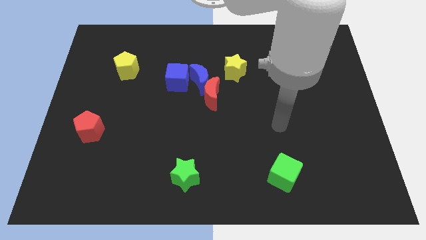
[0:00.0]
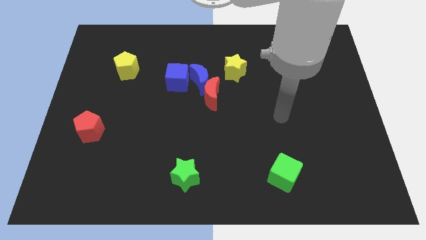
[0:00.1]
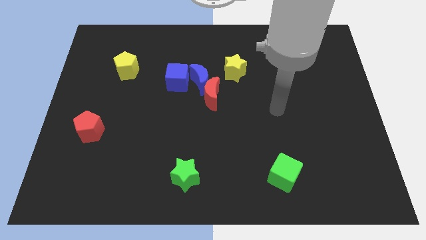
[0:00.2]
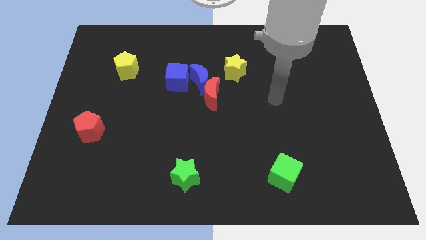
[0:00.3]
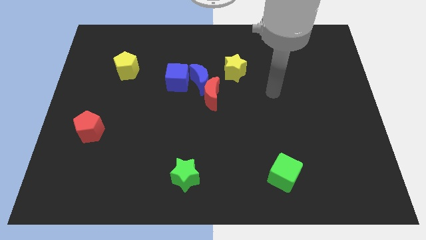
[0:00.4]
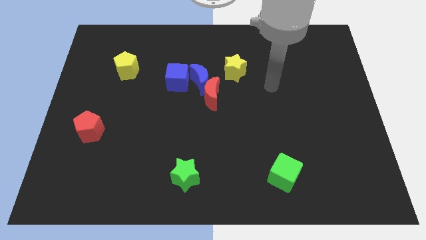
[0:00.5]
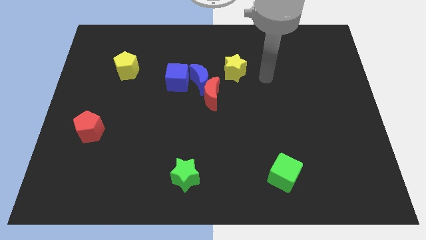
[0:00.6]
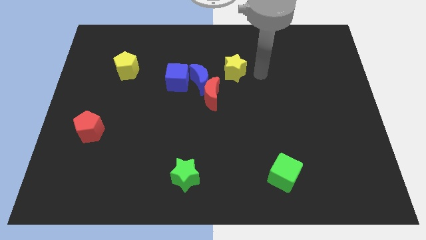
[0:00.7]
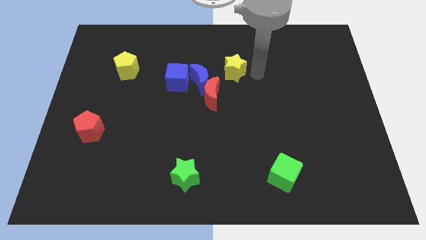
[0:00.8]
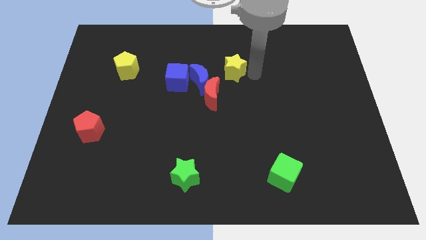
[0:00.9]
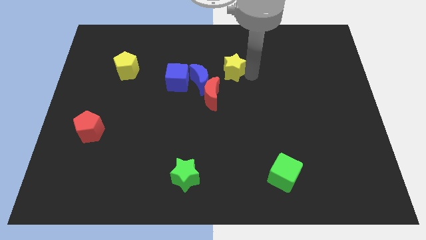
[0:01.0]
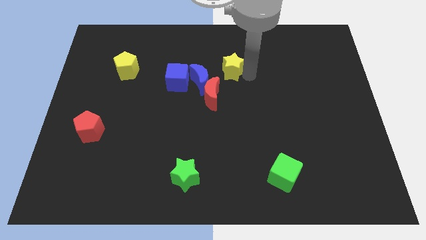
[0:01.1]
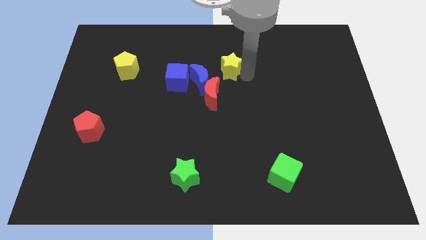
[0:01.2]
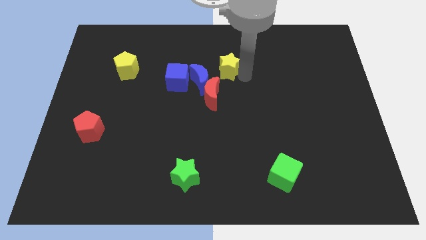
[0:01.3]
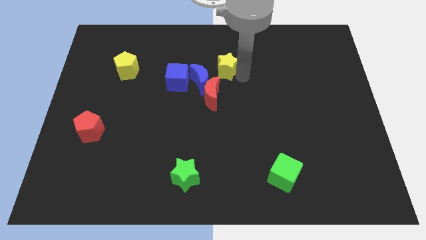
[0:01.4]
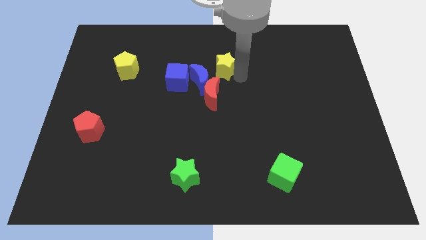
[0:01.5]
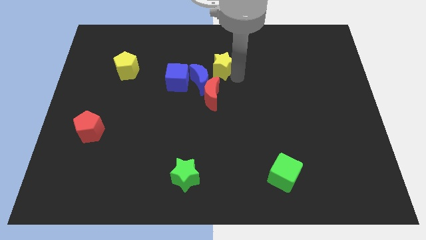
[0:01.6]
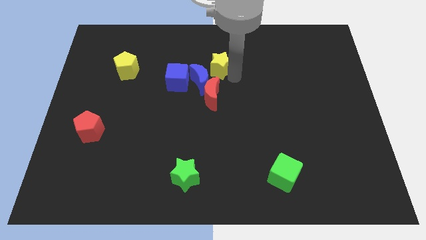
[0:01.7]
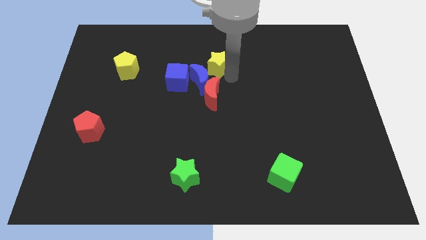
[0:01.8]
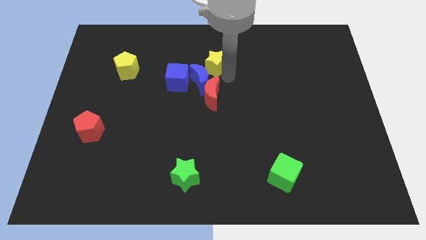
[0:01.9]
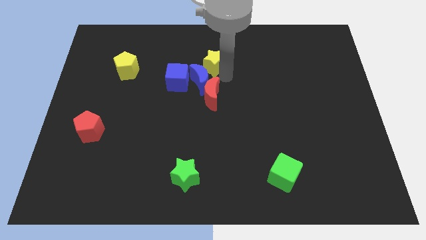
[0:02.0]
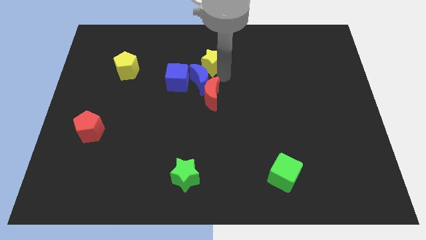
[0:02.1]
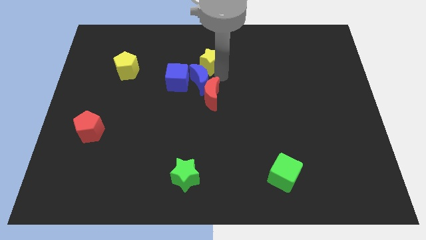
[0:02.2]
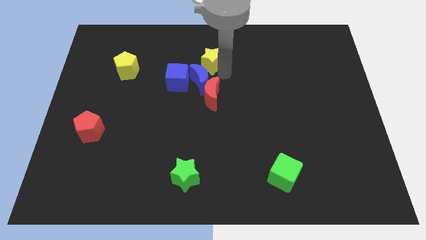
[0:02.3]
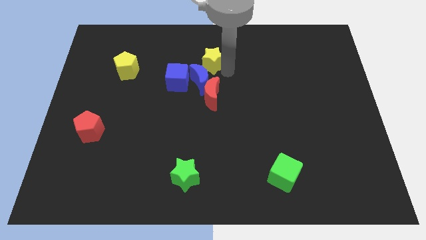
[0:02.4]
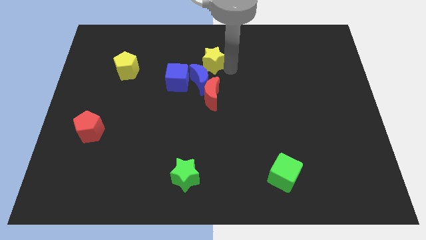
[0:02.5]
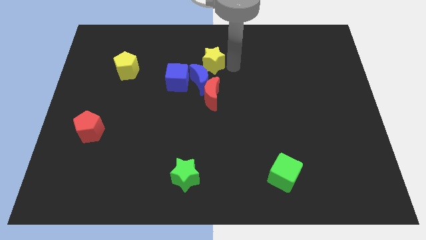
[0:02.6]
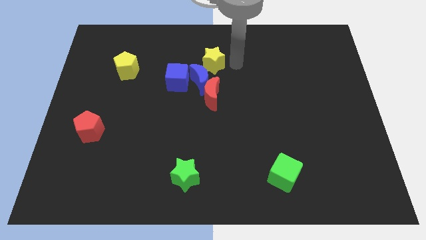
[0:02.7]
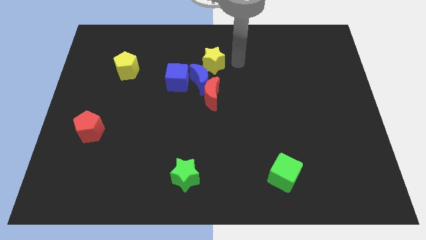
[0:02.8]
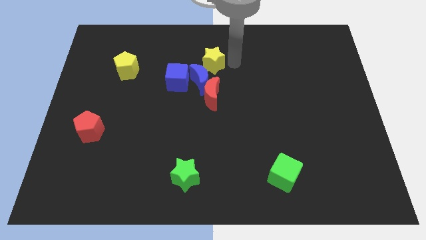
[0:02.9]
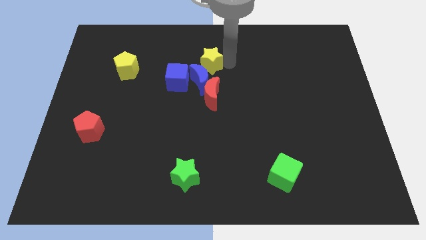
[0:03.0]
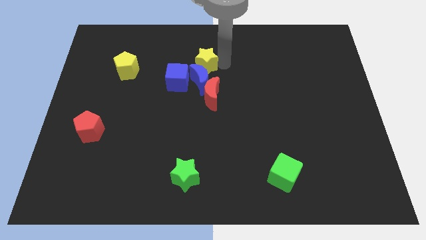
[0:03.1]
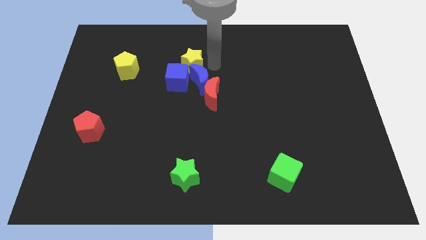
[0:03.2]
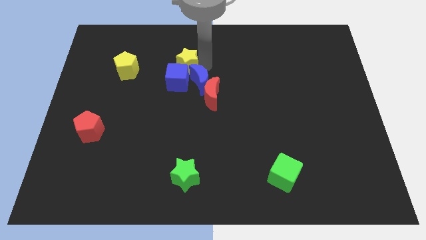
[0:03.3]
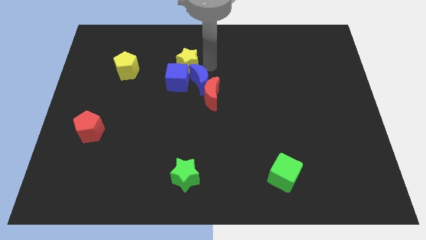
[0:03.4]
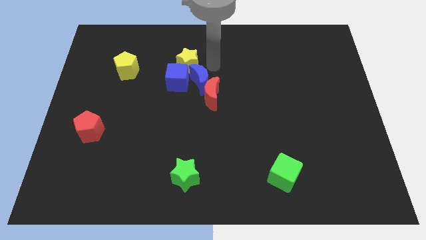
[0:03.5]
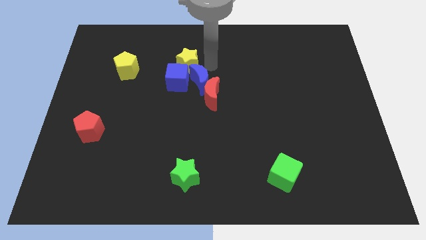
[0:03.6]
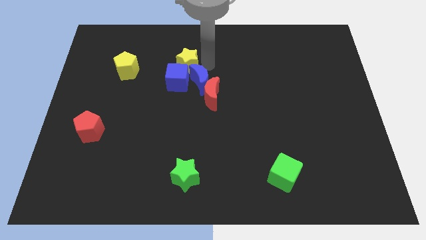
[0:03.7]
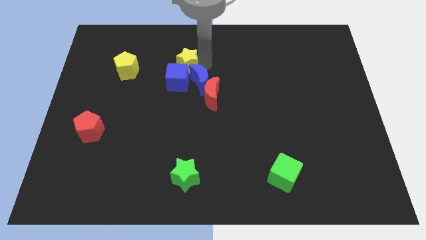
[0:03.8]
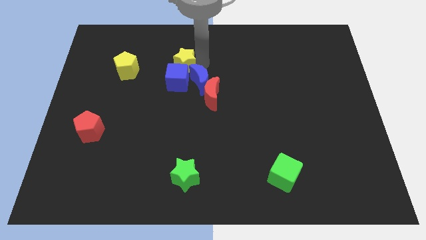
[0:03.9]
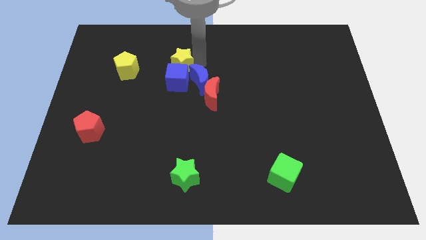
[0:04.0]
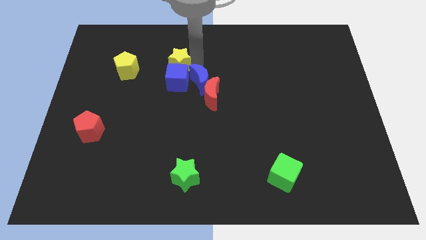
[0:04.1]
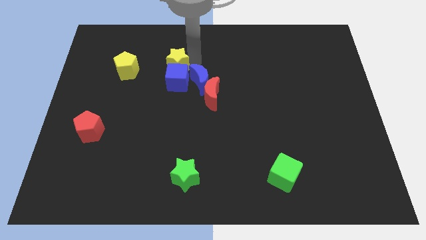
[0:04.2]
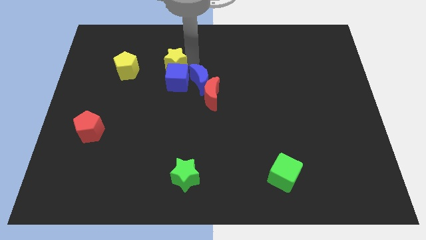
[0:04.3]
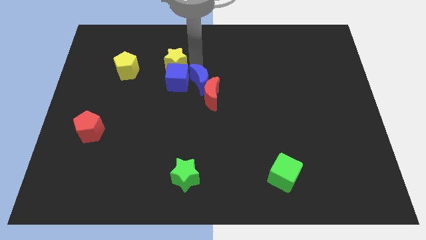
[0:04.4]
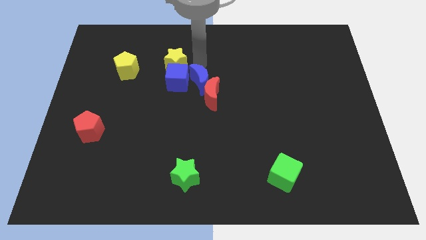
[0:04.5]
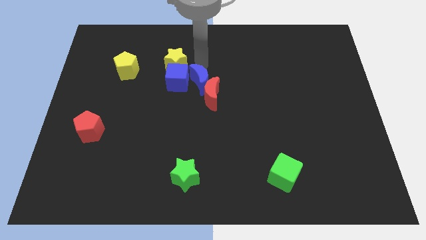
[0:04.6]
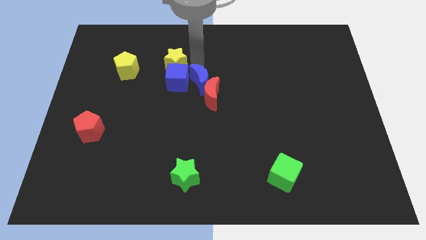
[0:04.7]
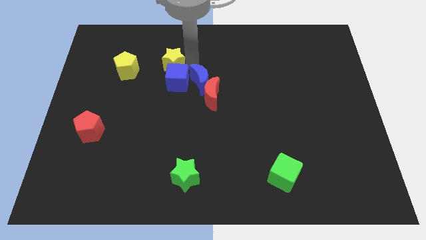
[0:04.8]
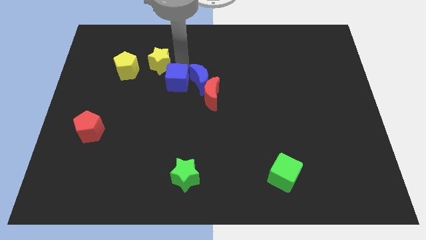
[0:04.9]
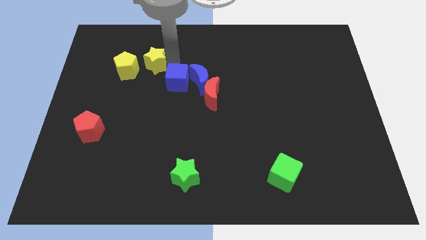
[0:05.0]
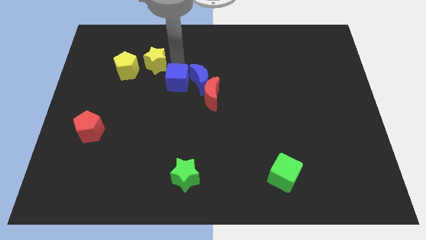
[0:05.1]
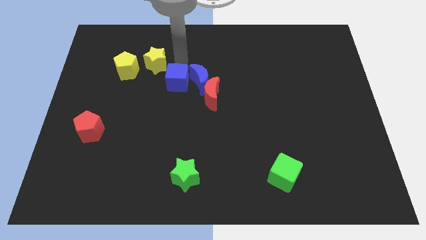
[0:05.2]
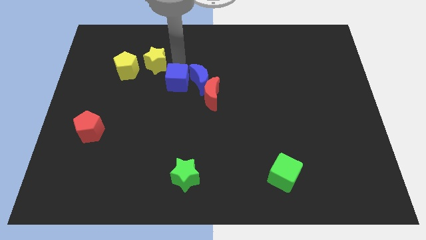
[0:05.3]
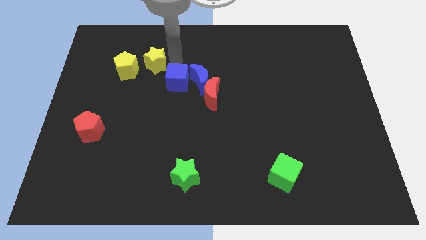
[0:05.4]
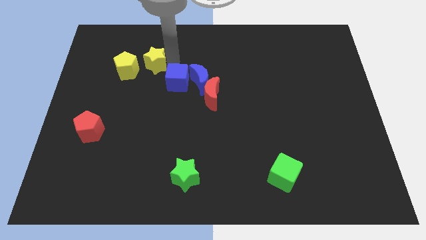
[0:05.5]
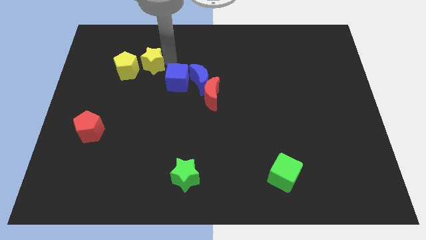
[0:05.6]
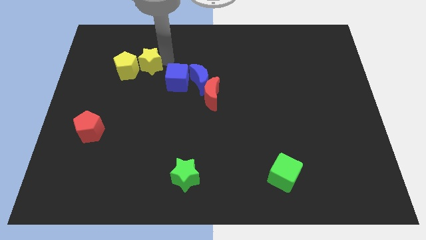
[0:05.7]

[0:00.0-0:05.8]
push the yellow star close to the yellow pentagon

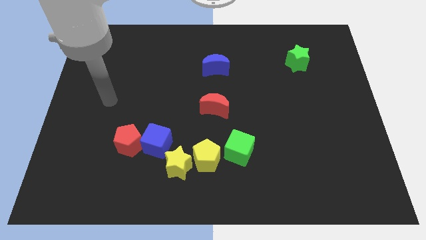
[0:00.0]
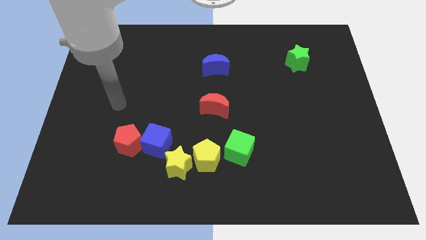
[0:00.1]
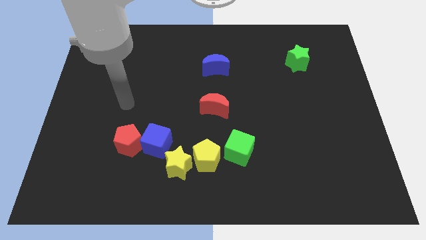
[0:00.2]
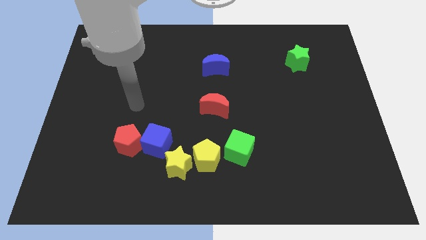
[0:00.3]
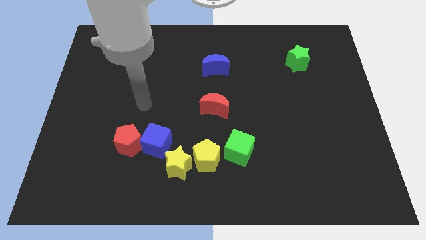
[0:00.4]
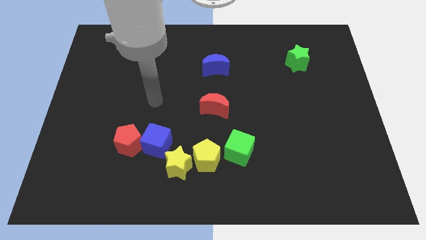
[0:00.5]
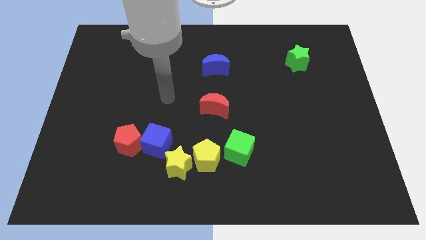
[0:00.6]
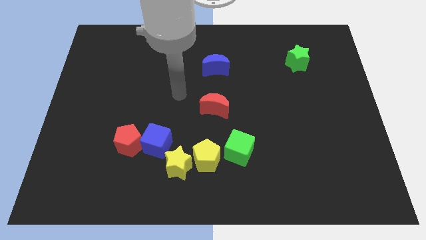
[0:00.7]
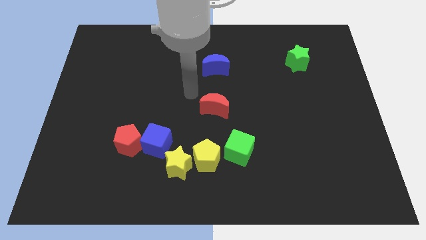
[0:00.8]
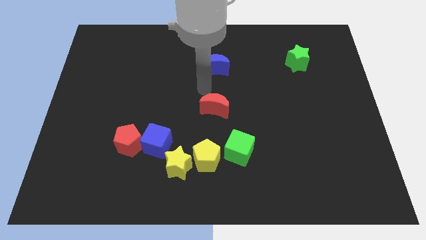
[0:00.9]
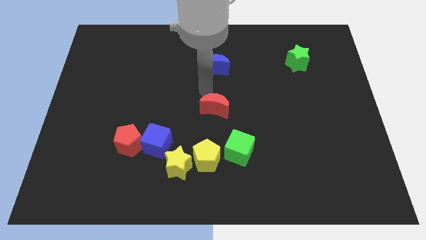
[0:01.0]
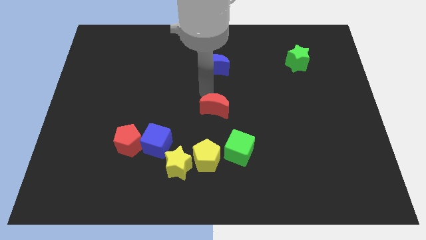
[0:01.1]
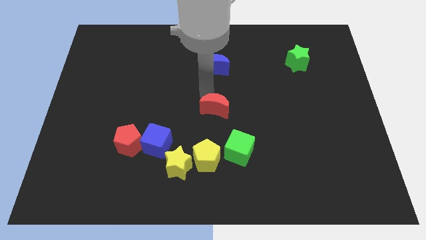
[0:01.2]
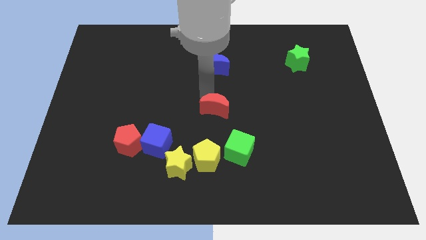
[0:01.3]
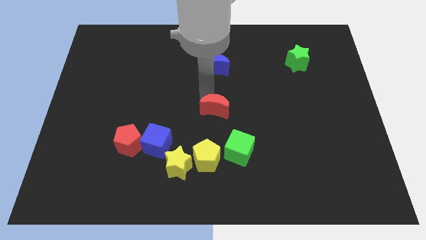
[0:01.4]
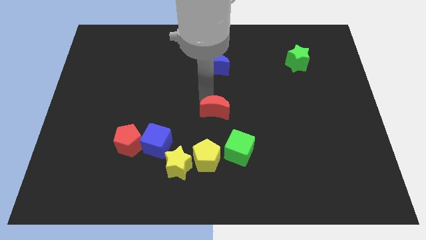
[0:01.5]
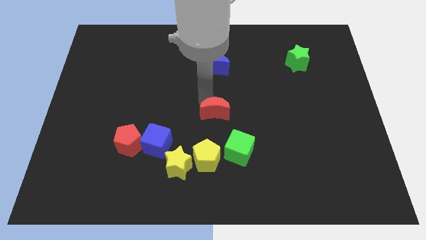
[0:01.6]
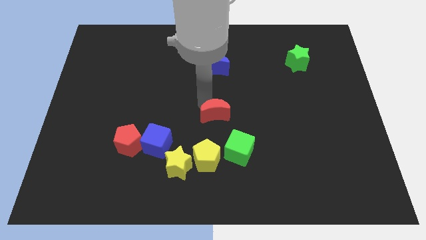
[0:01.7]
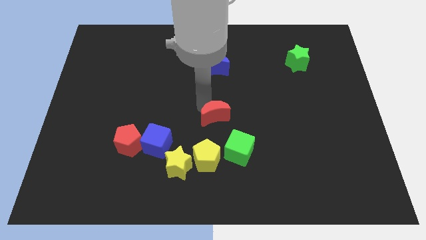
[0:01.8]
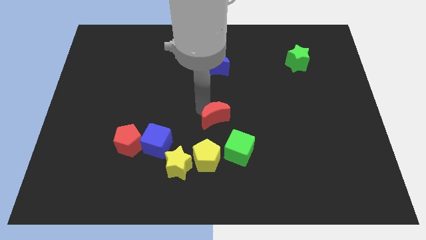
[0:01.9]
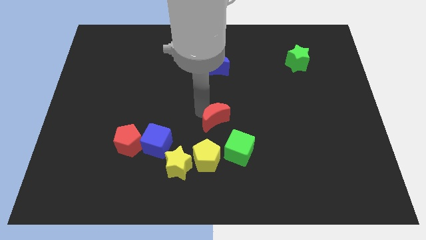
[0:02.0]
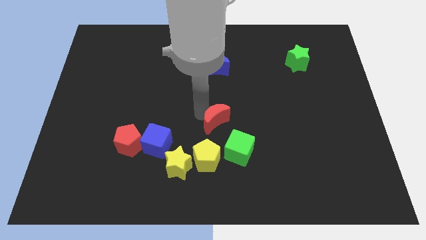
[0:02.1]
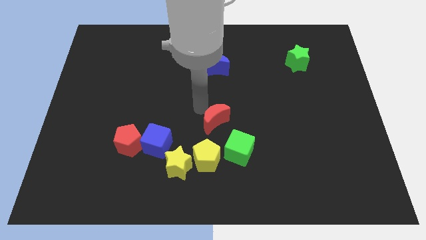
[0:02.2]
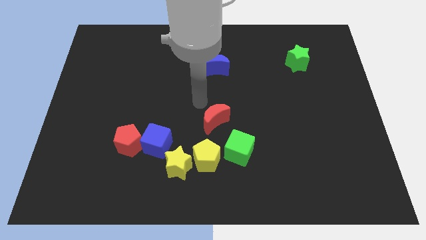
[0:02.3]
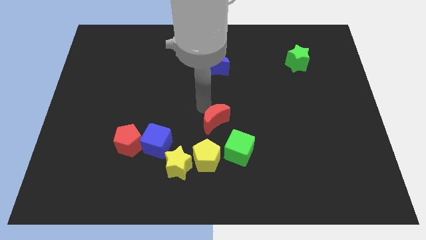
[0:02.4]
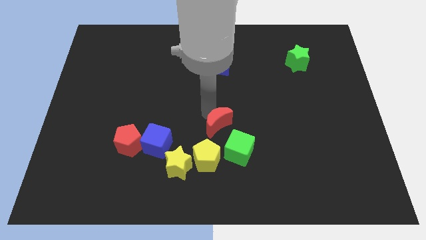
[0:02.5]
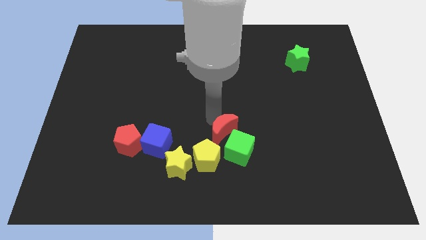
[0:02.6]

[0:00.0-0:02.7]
slide the red moon to the green cube
